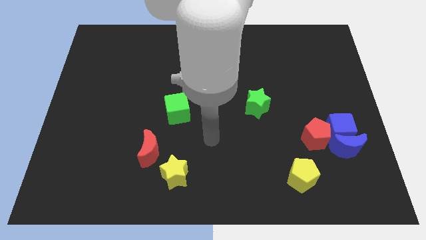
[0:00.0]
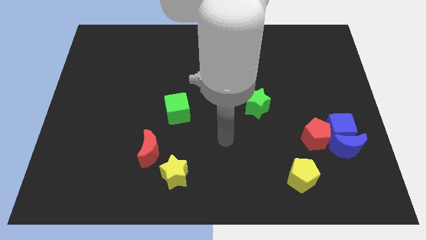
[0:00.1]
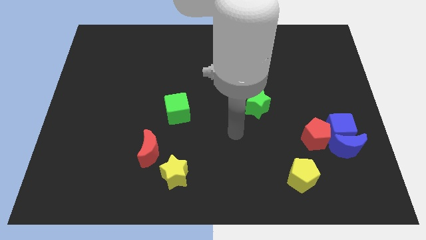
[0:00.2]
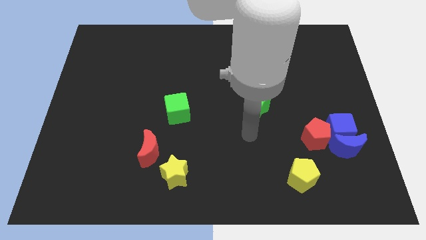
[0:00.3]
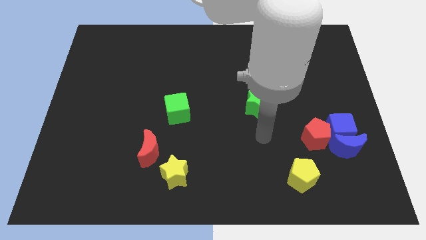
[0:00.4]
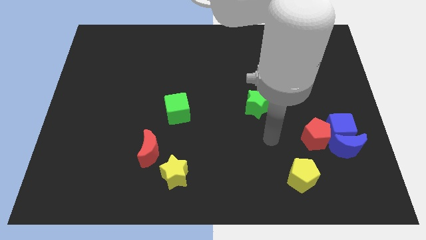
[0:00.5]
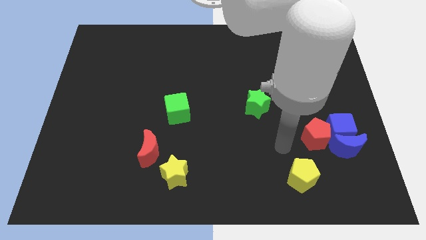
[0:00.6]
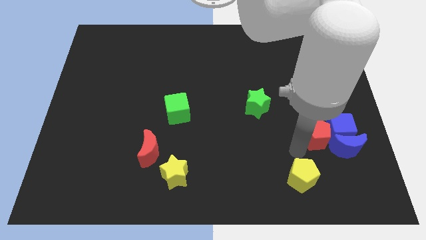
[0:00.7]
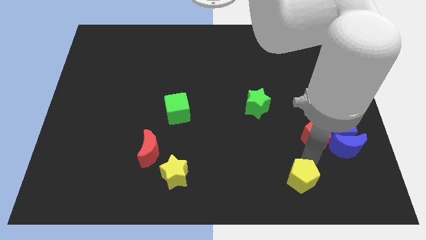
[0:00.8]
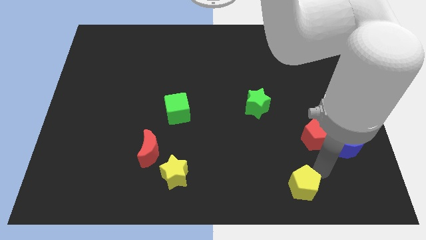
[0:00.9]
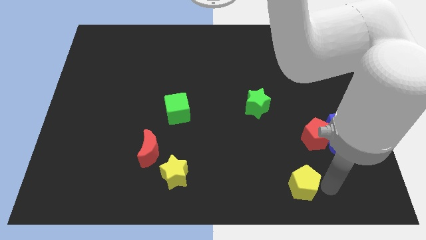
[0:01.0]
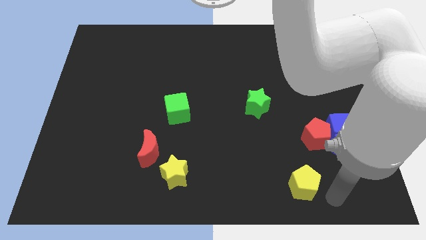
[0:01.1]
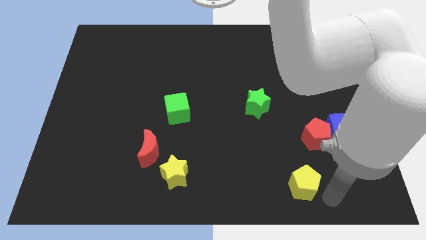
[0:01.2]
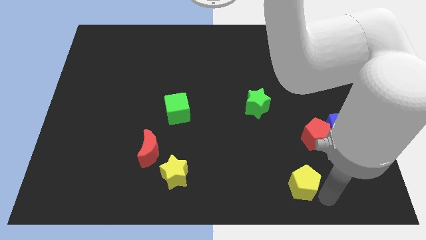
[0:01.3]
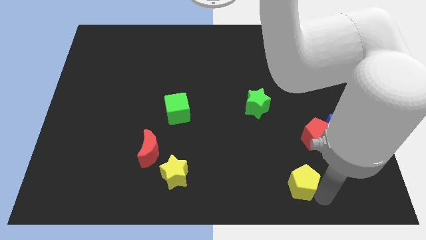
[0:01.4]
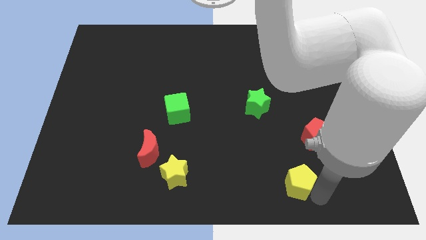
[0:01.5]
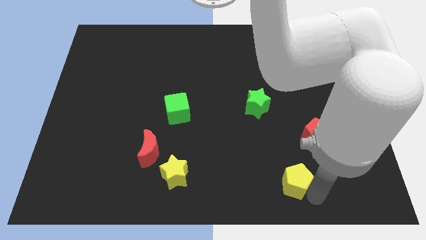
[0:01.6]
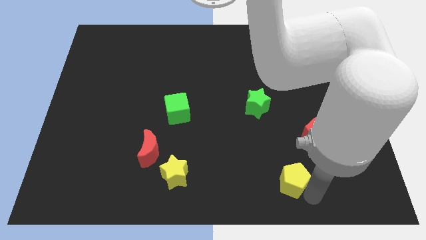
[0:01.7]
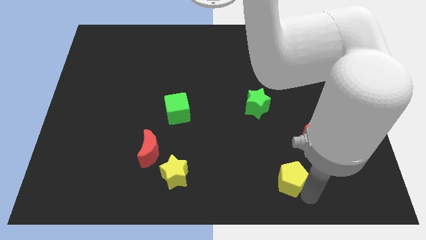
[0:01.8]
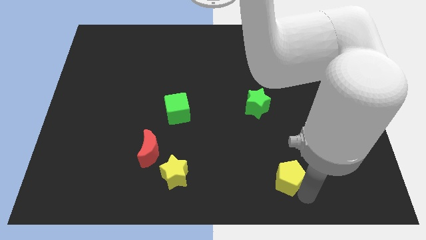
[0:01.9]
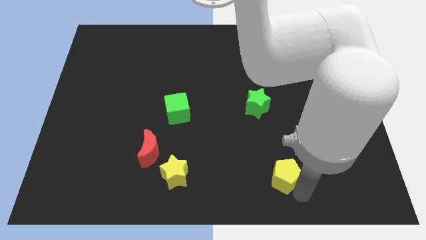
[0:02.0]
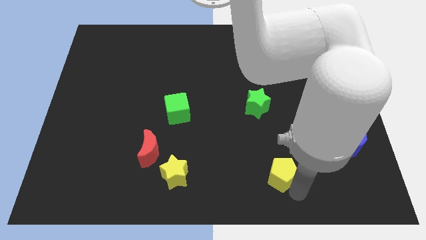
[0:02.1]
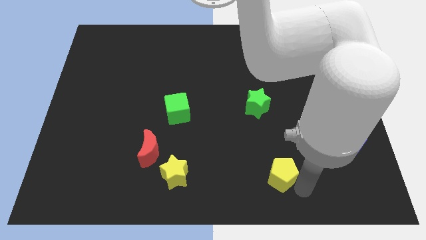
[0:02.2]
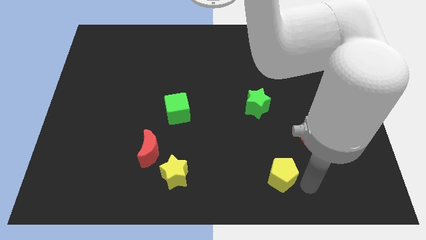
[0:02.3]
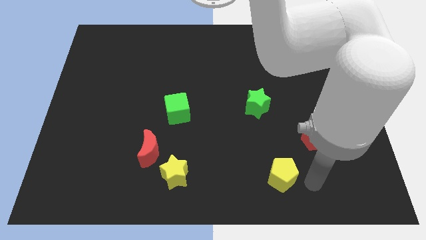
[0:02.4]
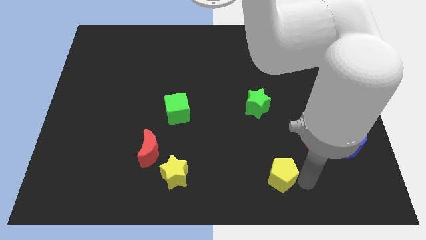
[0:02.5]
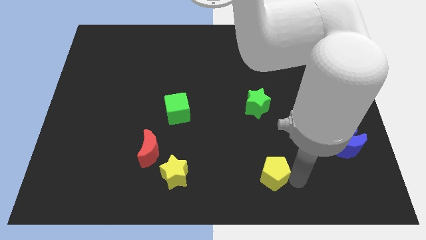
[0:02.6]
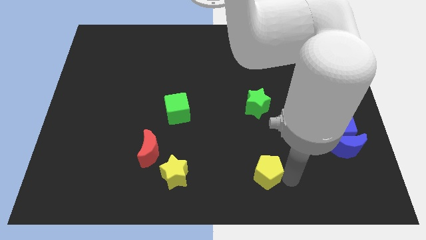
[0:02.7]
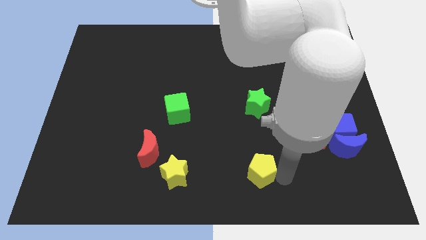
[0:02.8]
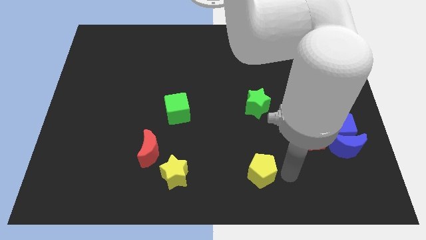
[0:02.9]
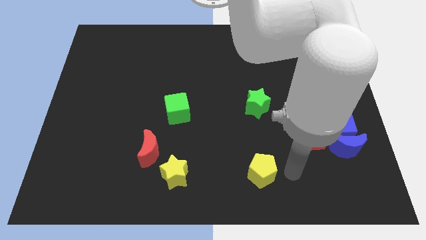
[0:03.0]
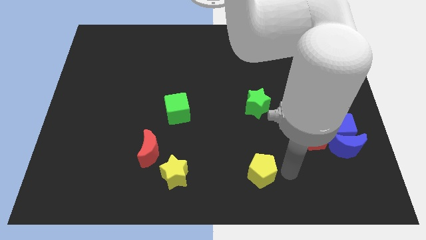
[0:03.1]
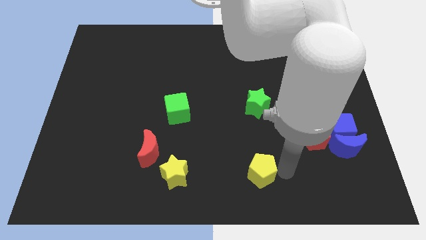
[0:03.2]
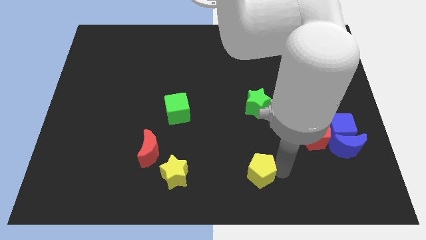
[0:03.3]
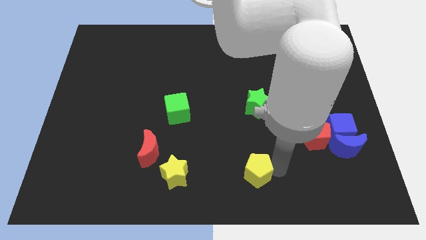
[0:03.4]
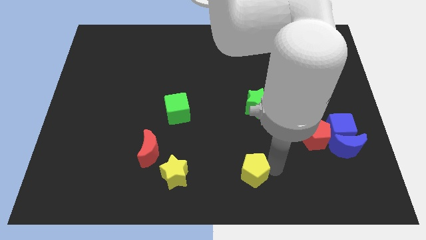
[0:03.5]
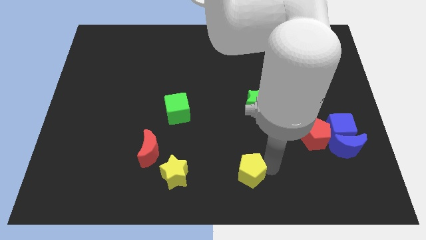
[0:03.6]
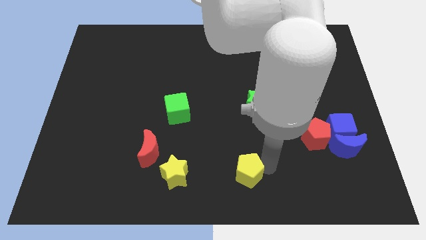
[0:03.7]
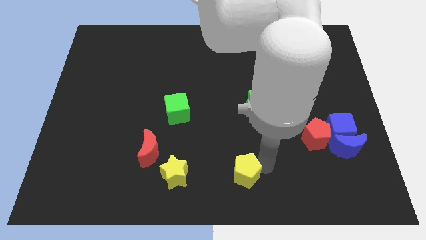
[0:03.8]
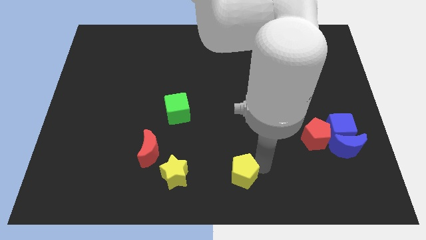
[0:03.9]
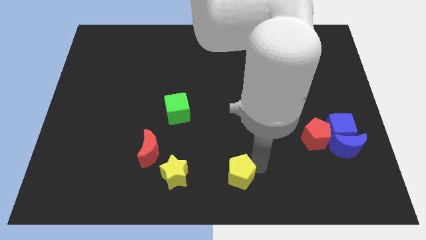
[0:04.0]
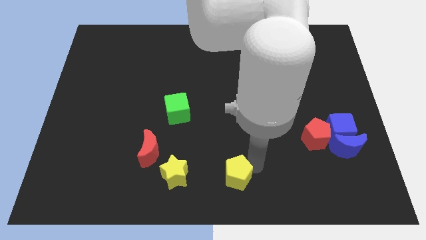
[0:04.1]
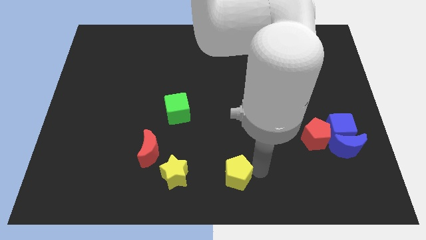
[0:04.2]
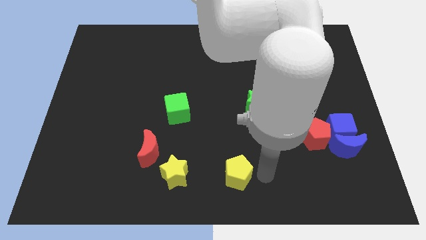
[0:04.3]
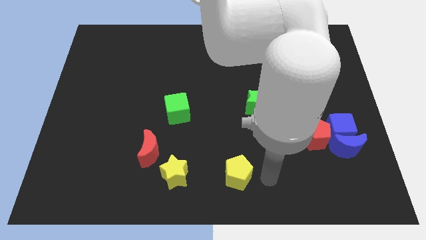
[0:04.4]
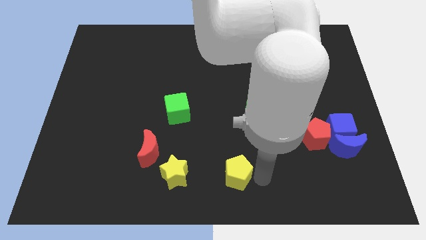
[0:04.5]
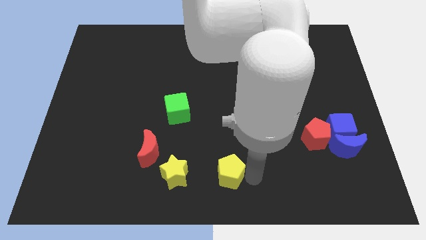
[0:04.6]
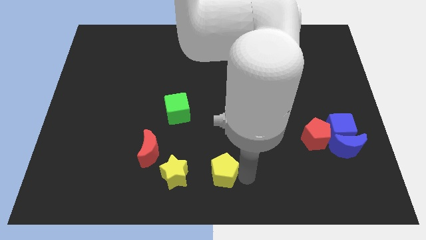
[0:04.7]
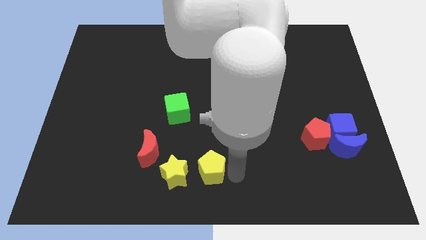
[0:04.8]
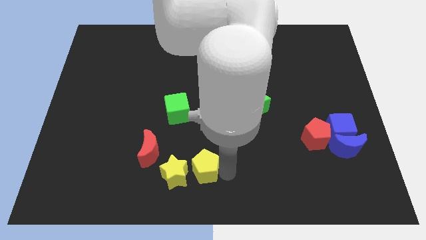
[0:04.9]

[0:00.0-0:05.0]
move the yellow pentagon close to the yellow star

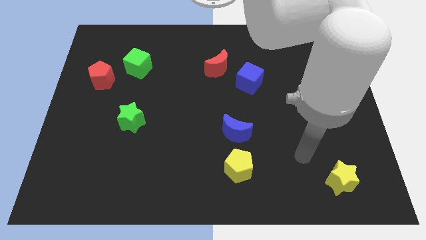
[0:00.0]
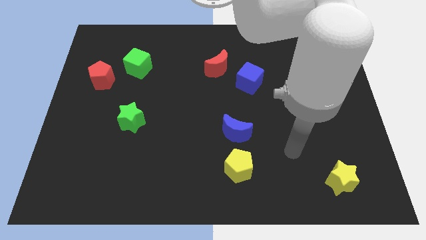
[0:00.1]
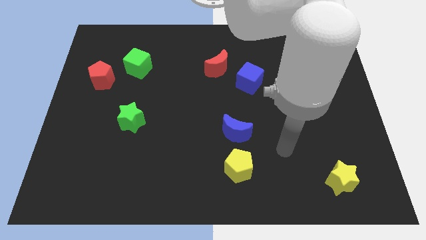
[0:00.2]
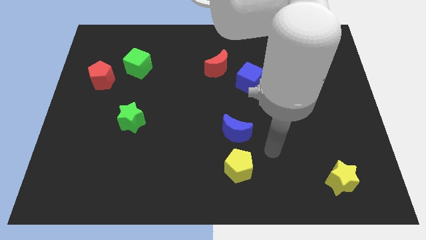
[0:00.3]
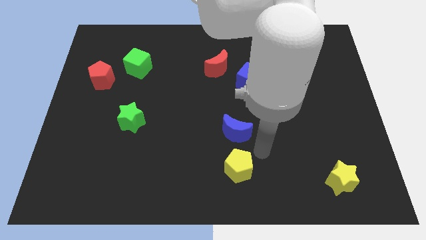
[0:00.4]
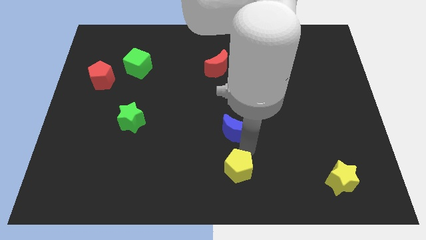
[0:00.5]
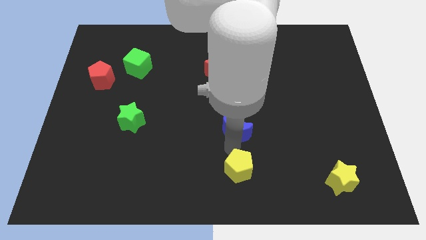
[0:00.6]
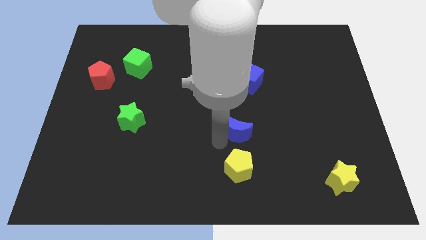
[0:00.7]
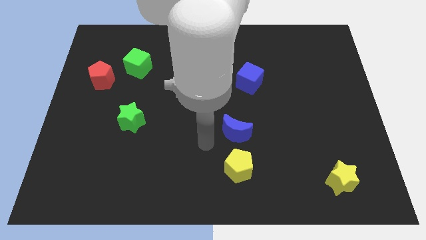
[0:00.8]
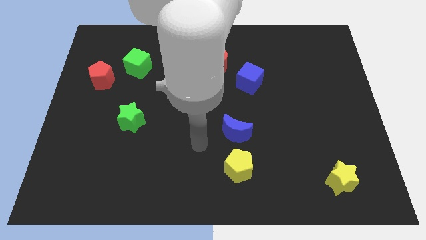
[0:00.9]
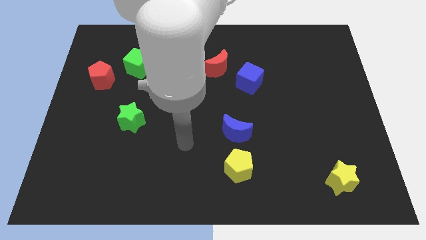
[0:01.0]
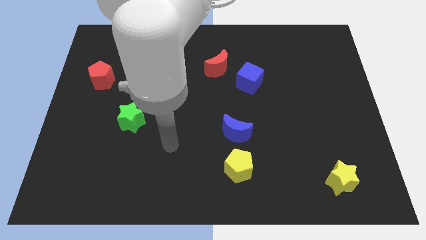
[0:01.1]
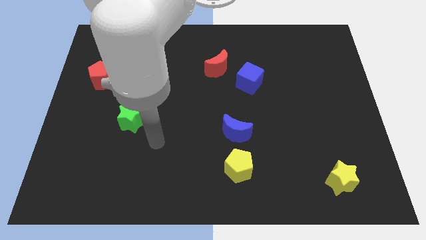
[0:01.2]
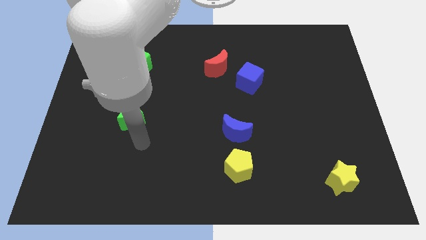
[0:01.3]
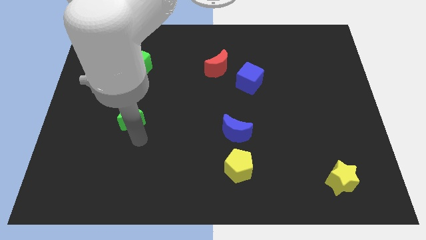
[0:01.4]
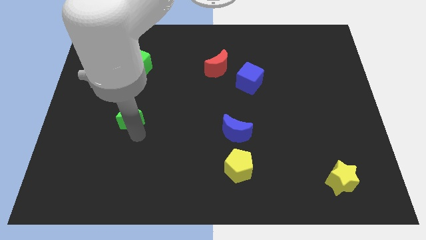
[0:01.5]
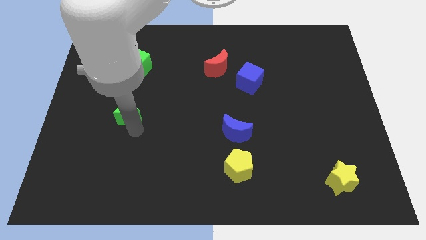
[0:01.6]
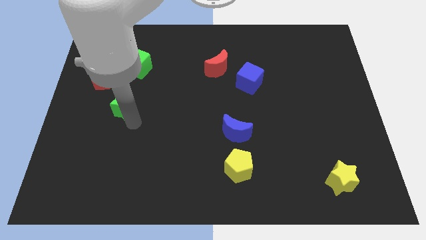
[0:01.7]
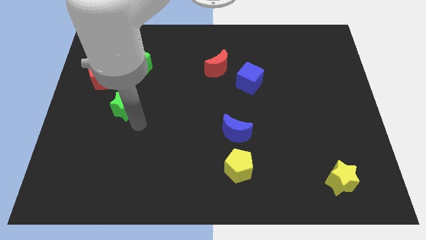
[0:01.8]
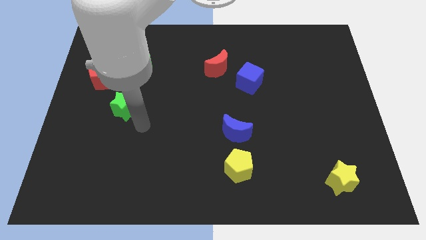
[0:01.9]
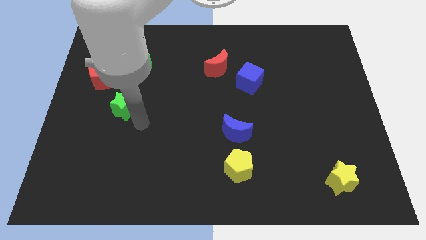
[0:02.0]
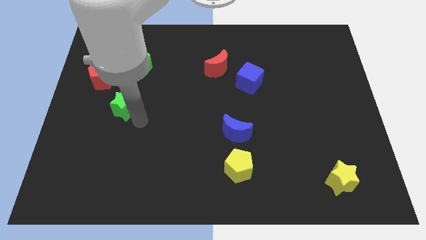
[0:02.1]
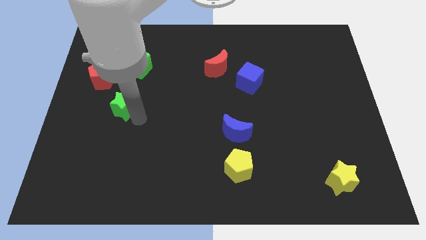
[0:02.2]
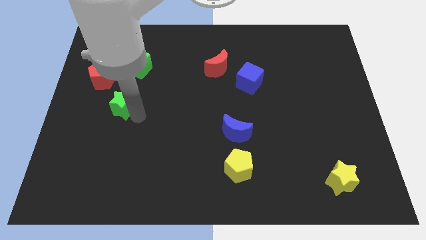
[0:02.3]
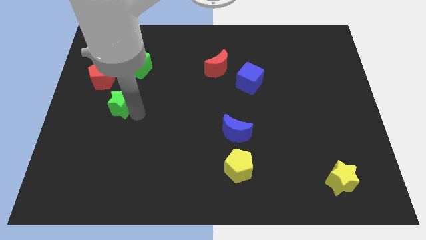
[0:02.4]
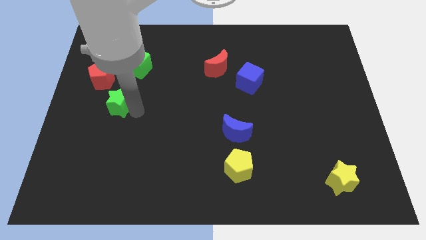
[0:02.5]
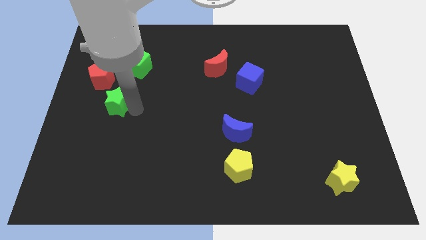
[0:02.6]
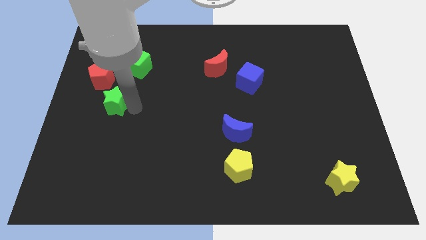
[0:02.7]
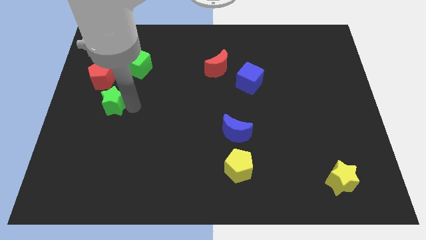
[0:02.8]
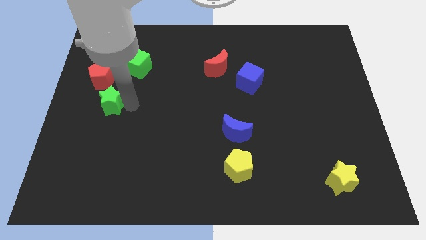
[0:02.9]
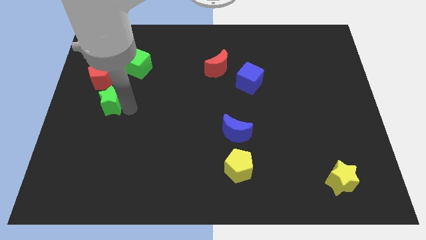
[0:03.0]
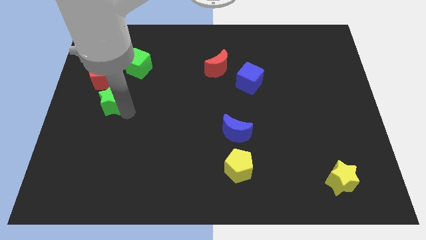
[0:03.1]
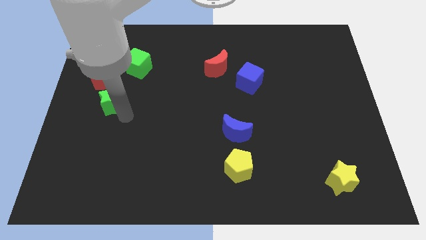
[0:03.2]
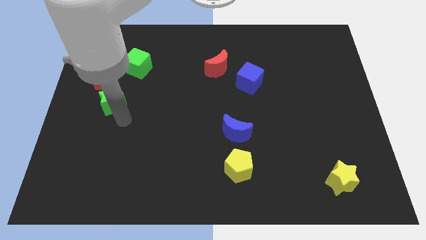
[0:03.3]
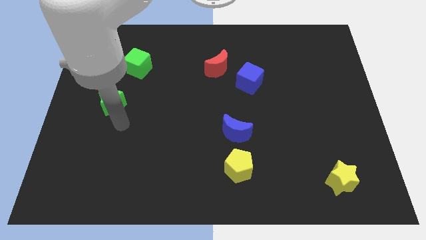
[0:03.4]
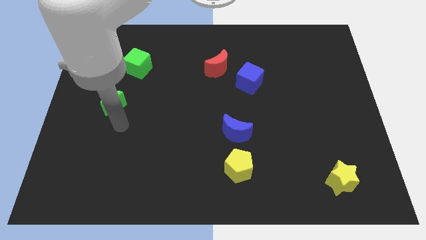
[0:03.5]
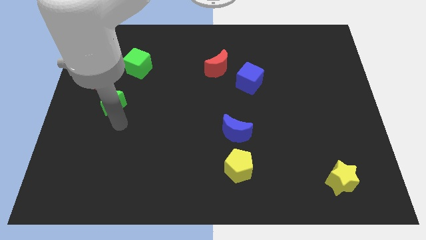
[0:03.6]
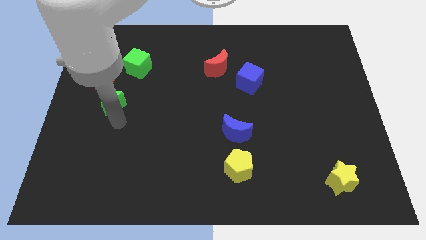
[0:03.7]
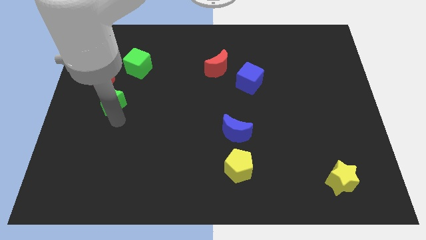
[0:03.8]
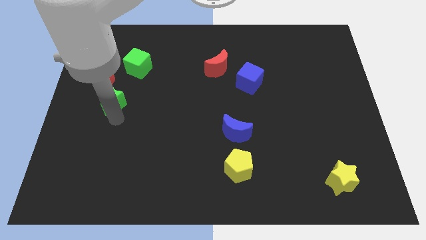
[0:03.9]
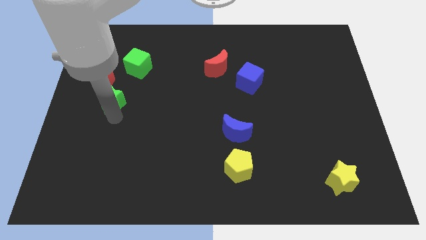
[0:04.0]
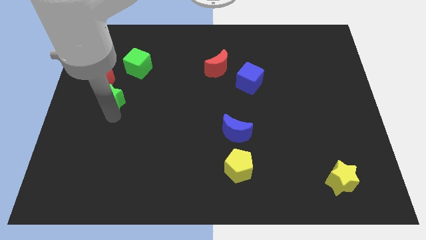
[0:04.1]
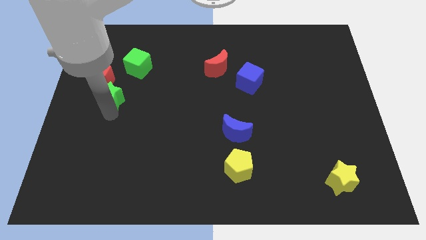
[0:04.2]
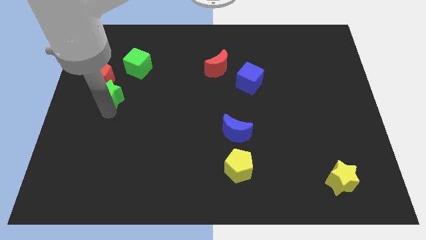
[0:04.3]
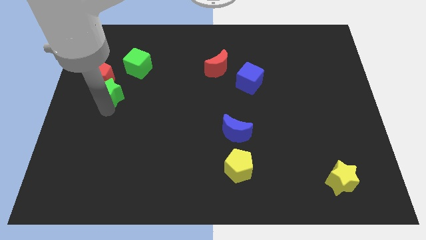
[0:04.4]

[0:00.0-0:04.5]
push the green star to the red pentagon
